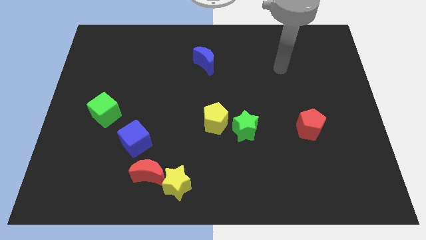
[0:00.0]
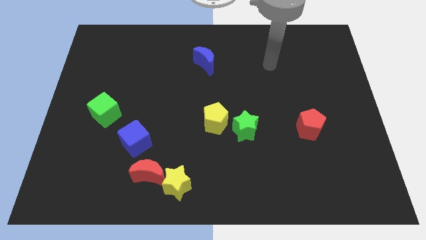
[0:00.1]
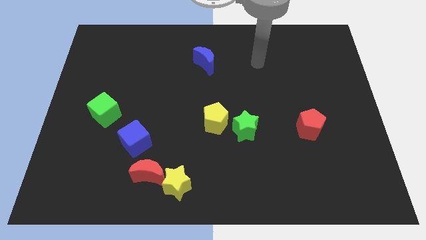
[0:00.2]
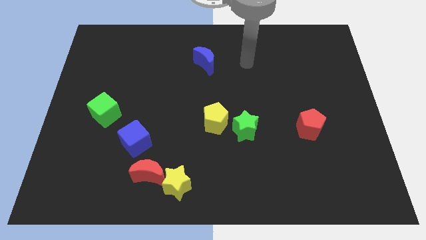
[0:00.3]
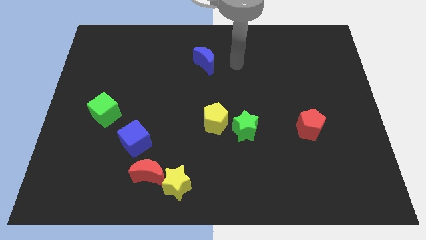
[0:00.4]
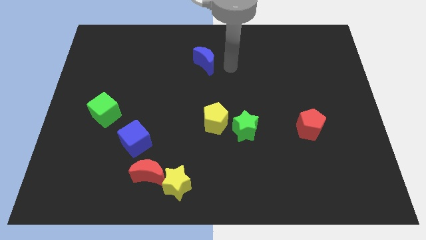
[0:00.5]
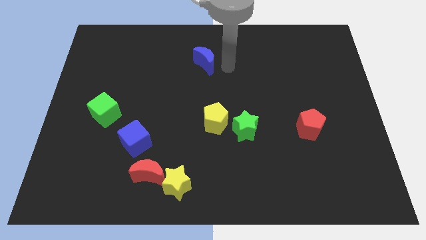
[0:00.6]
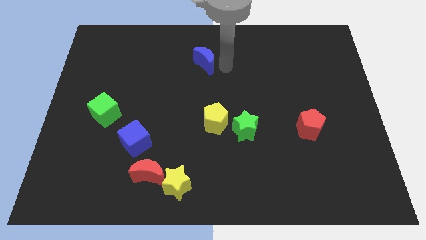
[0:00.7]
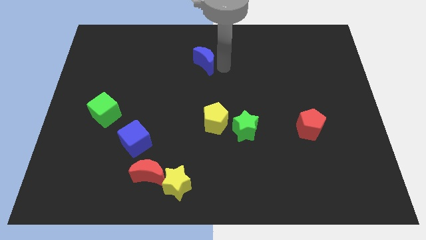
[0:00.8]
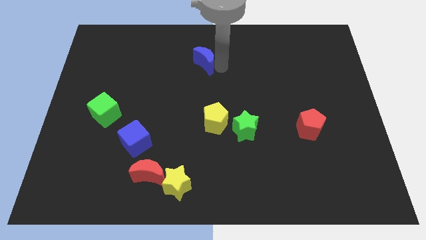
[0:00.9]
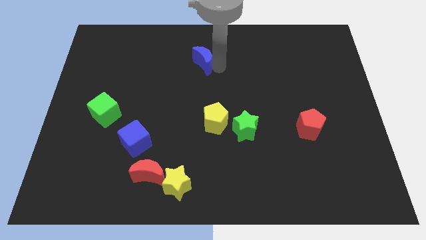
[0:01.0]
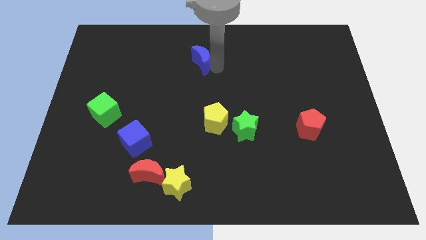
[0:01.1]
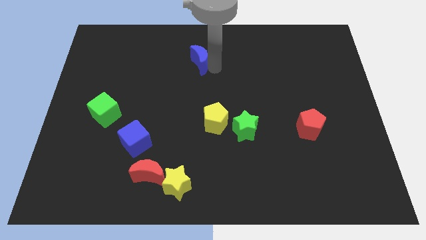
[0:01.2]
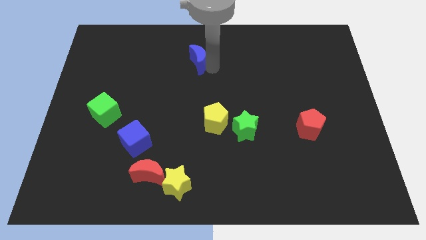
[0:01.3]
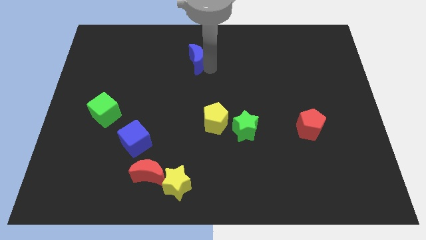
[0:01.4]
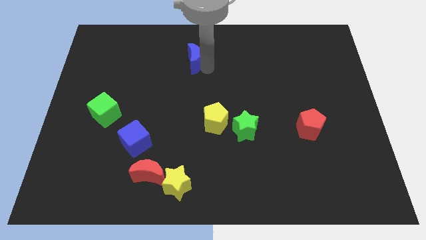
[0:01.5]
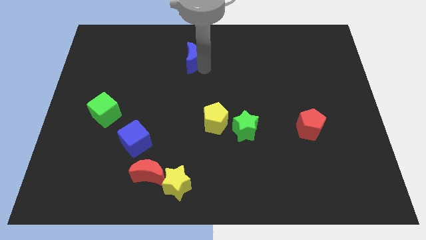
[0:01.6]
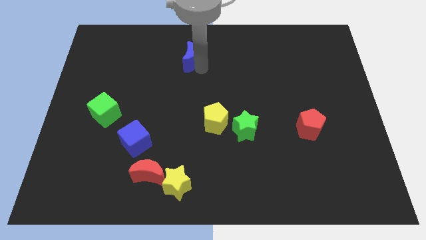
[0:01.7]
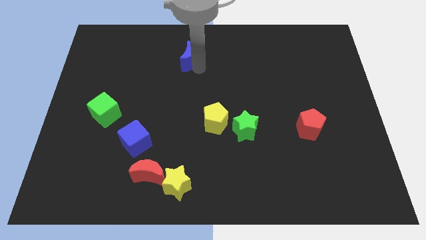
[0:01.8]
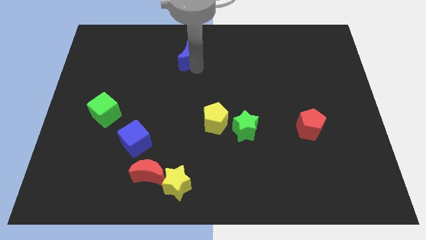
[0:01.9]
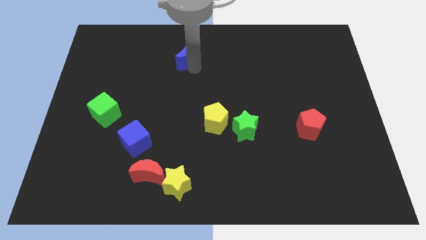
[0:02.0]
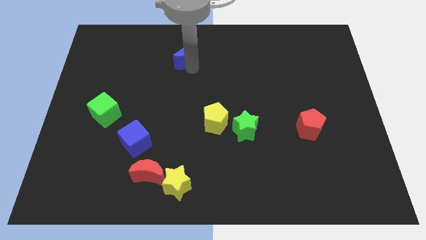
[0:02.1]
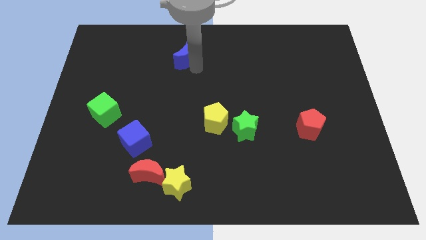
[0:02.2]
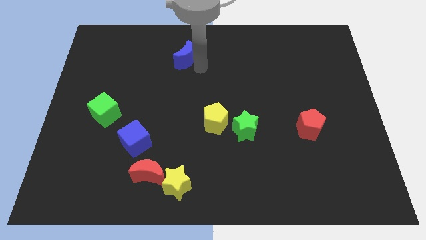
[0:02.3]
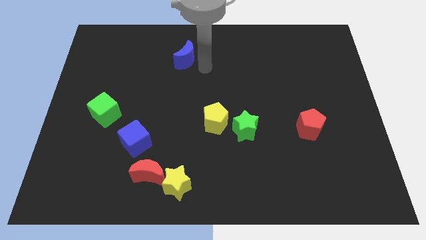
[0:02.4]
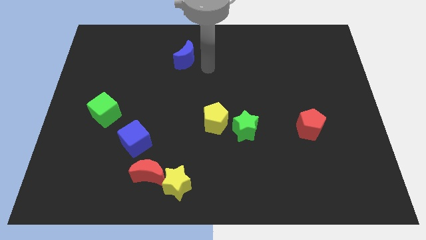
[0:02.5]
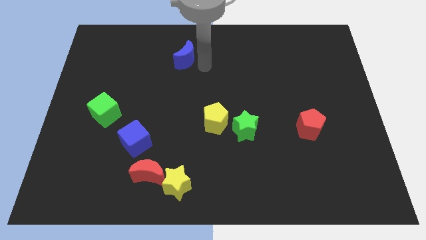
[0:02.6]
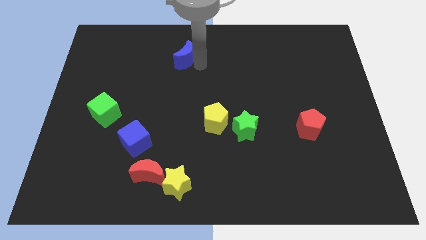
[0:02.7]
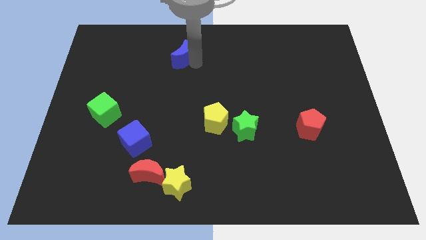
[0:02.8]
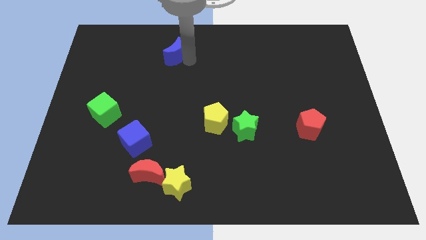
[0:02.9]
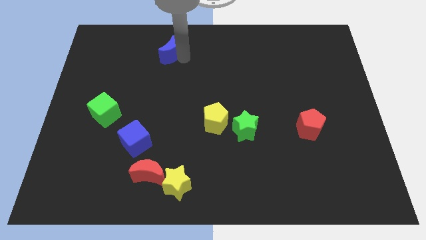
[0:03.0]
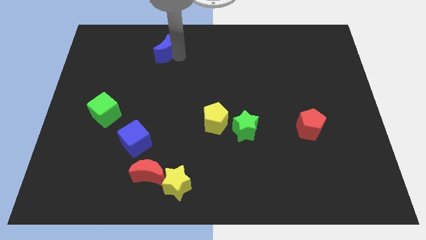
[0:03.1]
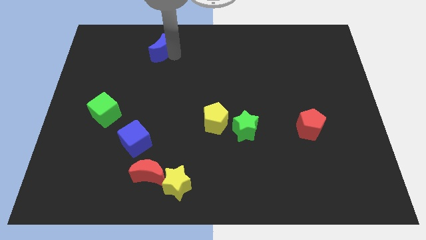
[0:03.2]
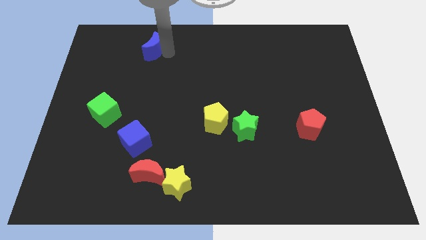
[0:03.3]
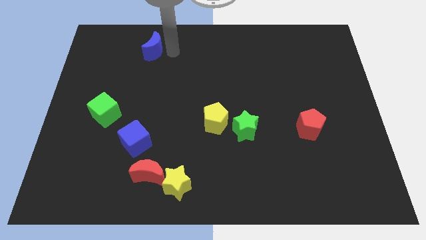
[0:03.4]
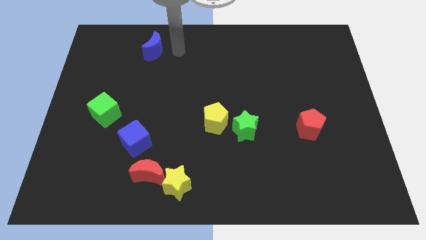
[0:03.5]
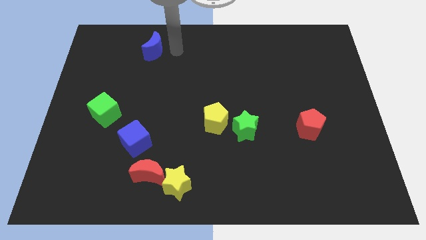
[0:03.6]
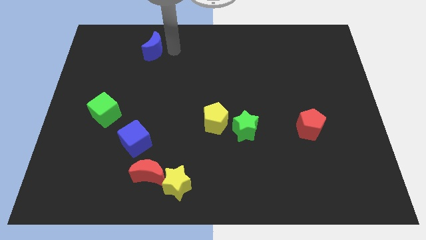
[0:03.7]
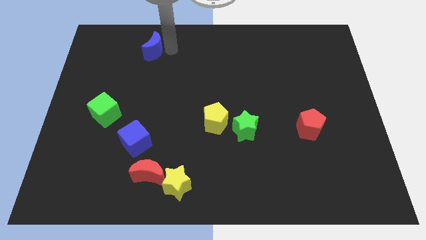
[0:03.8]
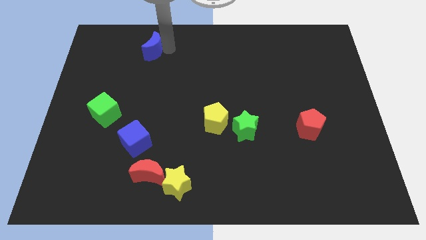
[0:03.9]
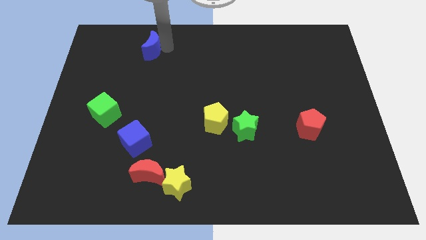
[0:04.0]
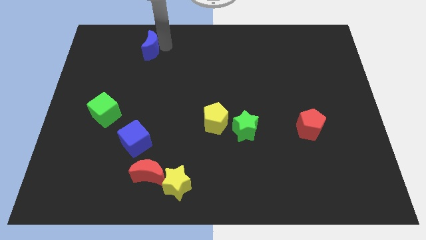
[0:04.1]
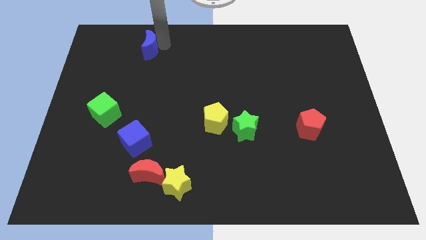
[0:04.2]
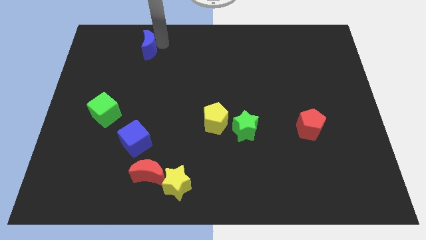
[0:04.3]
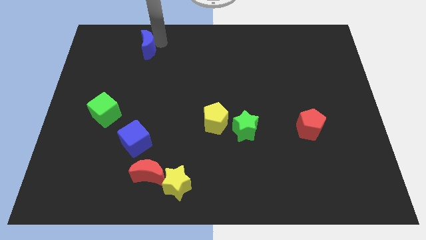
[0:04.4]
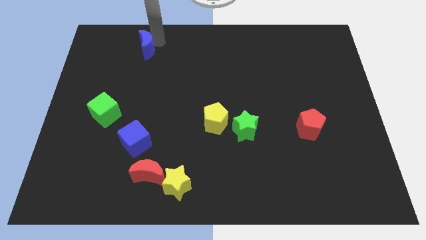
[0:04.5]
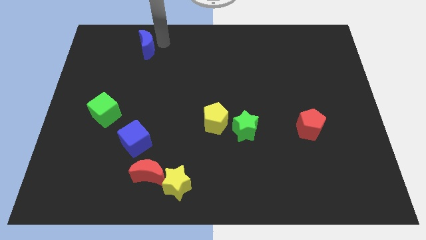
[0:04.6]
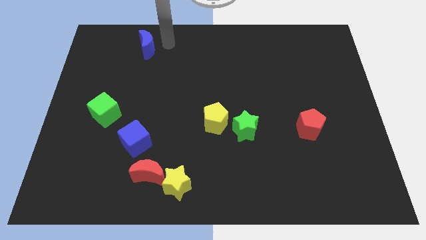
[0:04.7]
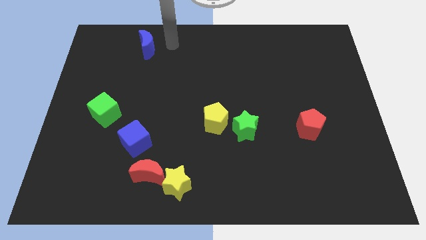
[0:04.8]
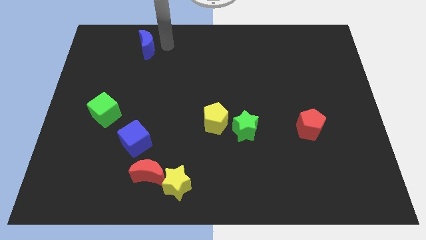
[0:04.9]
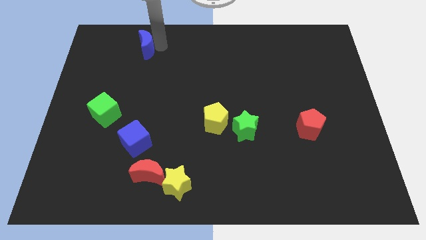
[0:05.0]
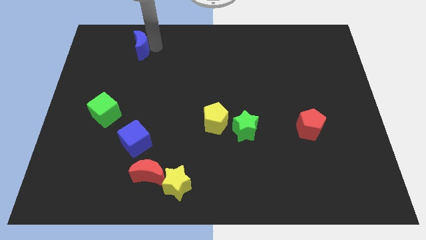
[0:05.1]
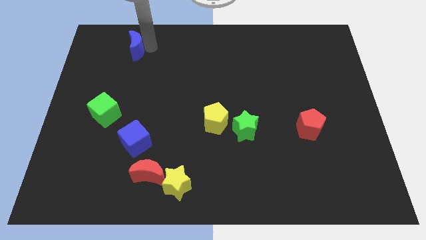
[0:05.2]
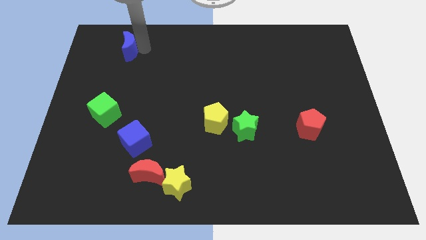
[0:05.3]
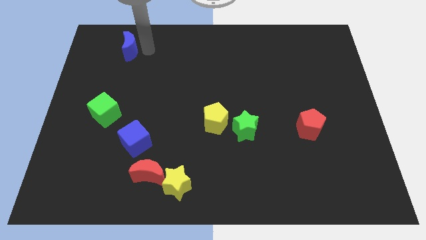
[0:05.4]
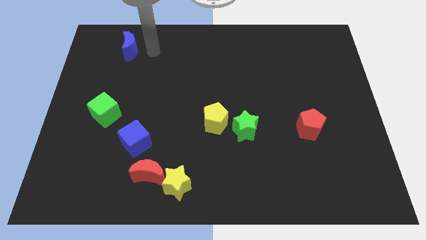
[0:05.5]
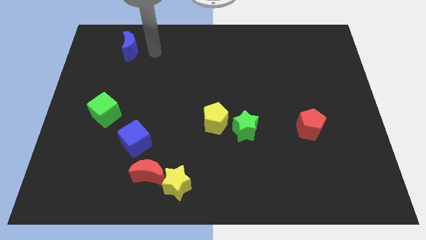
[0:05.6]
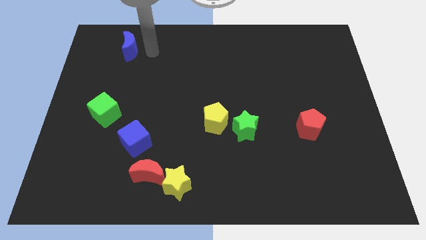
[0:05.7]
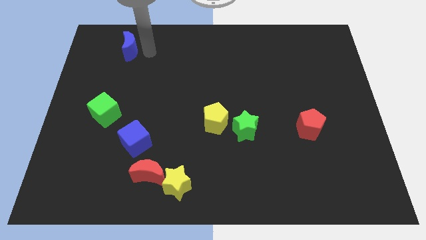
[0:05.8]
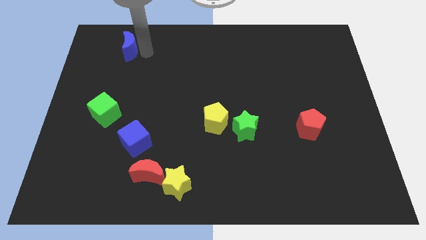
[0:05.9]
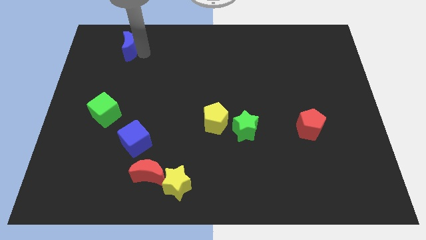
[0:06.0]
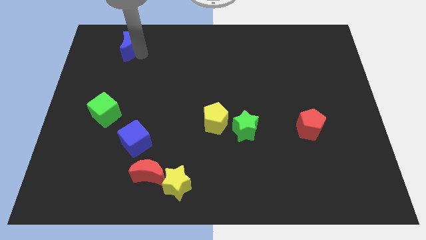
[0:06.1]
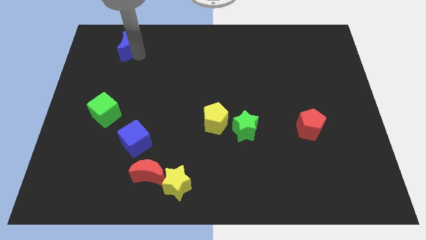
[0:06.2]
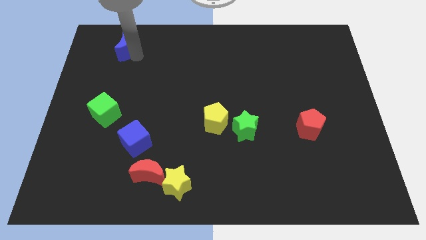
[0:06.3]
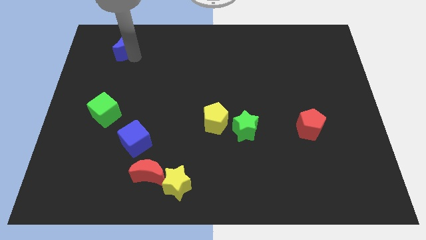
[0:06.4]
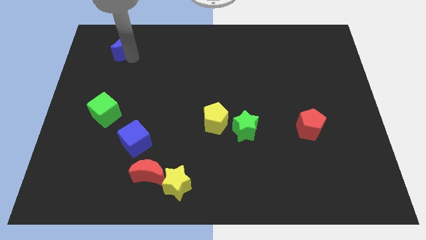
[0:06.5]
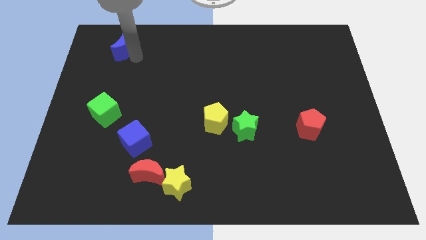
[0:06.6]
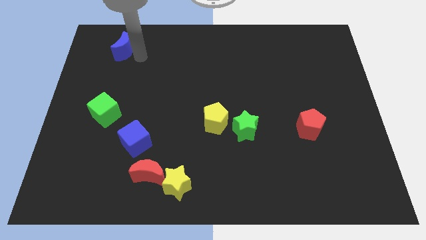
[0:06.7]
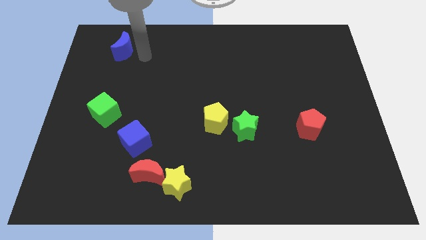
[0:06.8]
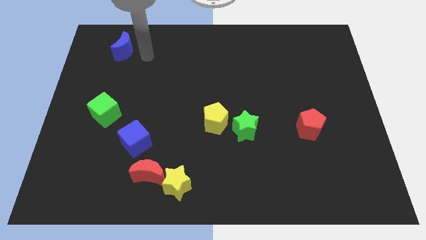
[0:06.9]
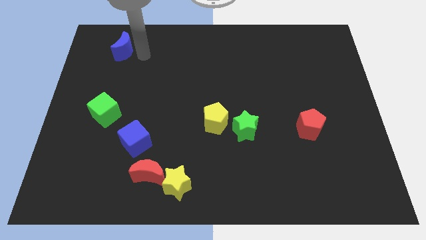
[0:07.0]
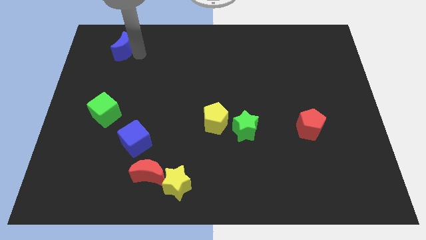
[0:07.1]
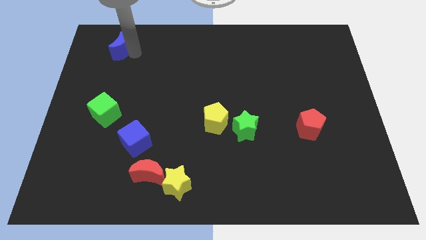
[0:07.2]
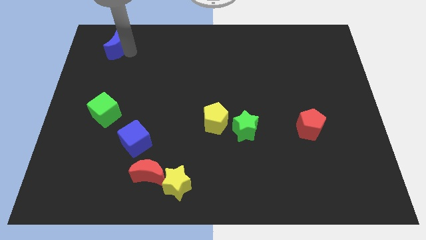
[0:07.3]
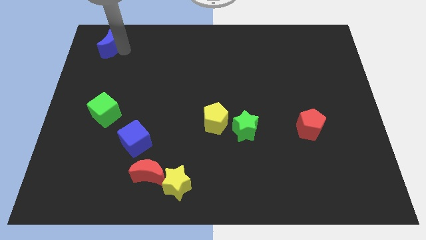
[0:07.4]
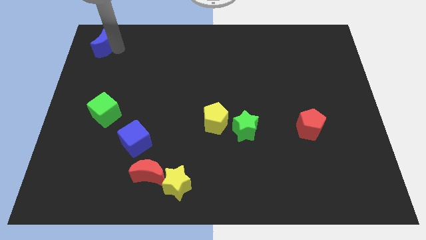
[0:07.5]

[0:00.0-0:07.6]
put the blue moon to the top left of the board
